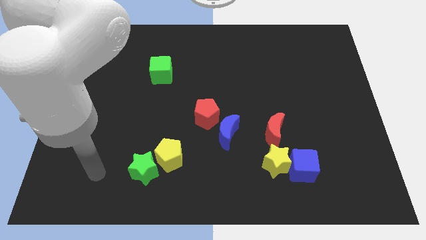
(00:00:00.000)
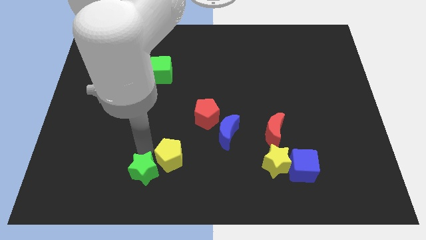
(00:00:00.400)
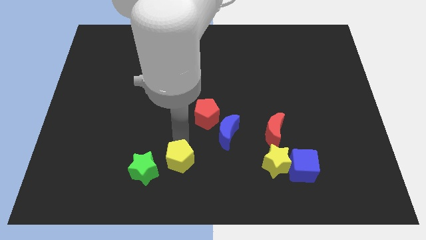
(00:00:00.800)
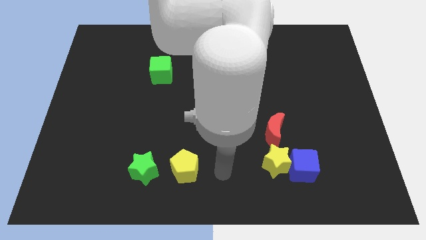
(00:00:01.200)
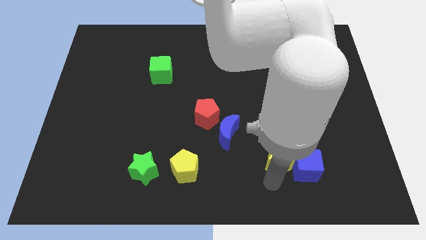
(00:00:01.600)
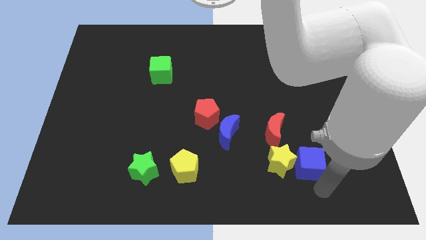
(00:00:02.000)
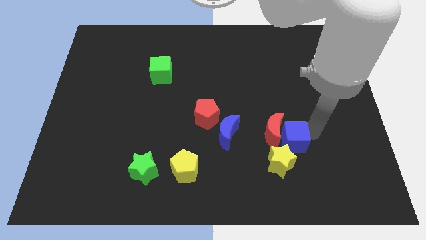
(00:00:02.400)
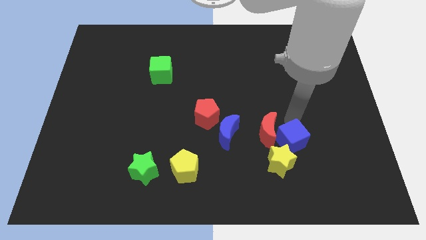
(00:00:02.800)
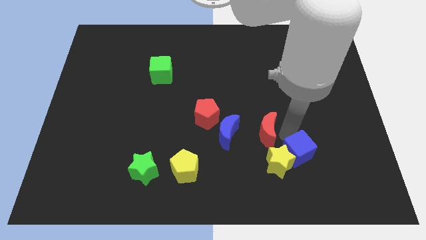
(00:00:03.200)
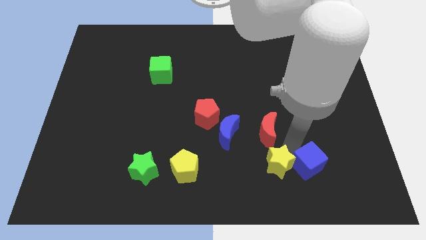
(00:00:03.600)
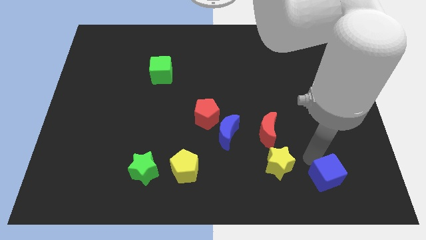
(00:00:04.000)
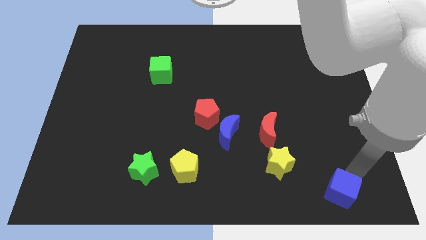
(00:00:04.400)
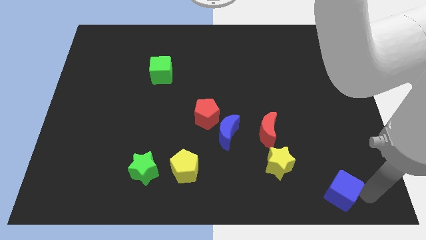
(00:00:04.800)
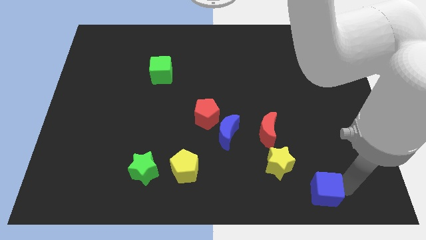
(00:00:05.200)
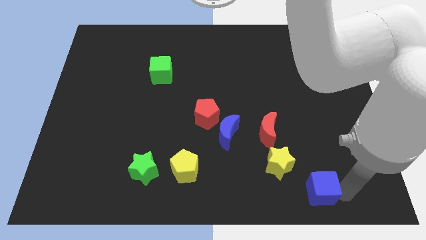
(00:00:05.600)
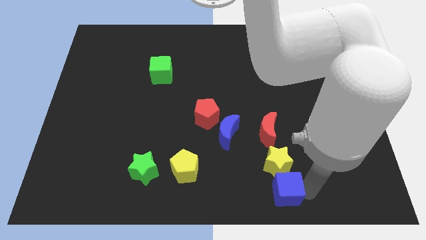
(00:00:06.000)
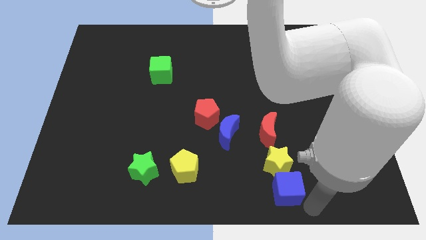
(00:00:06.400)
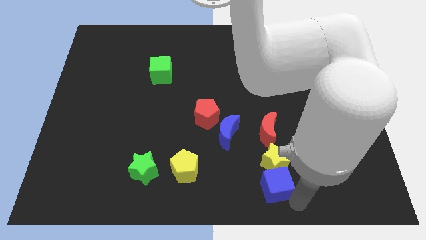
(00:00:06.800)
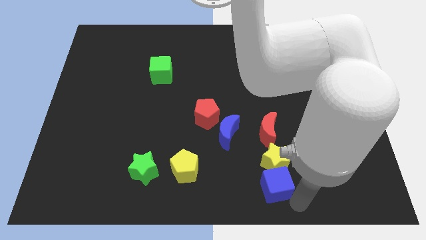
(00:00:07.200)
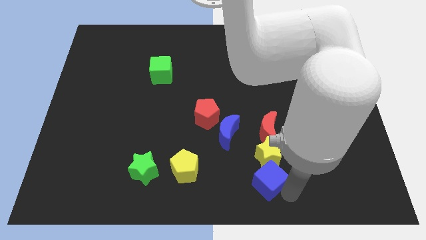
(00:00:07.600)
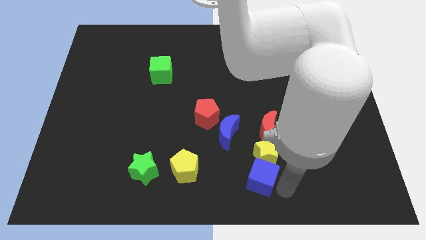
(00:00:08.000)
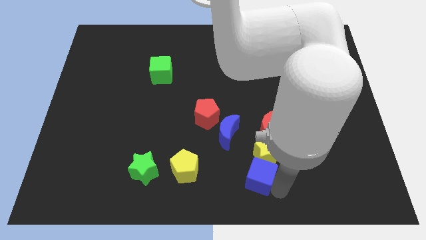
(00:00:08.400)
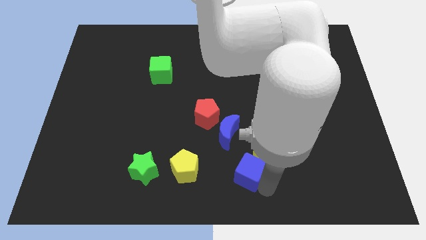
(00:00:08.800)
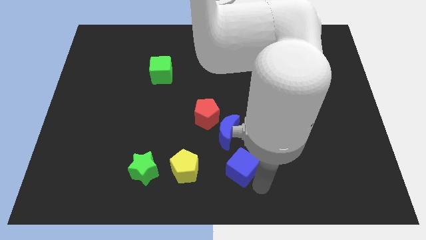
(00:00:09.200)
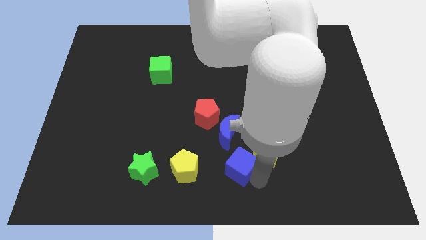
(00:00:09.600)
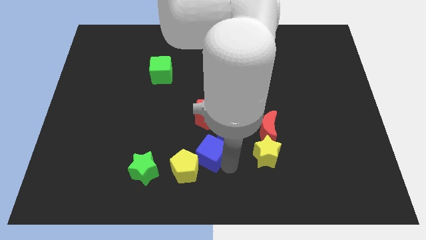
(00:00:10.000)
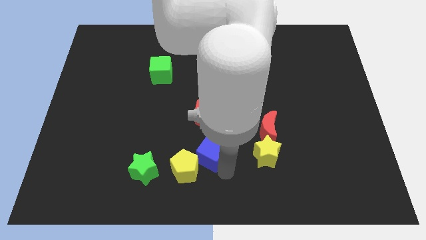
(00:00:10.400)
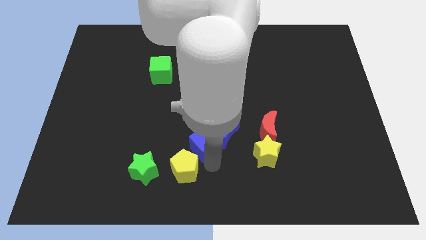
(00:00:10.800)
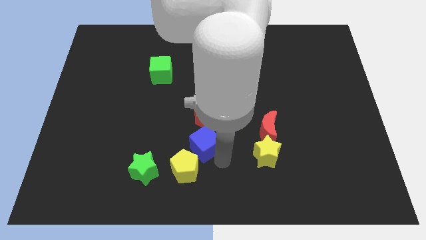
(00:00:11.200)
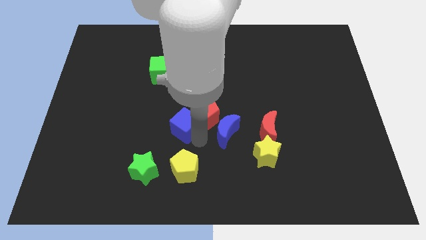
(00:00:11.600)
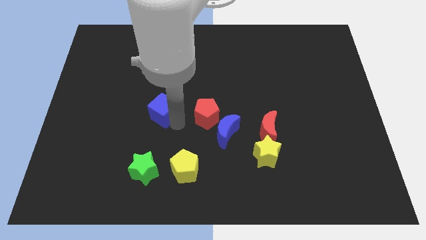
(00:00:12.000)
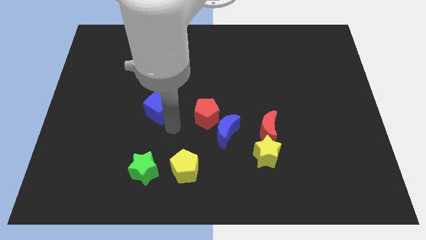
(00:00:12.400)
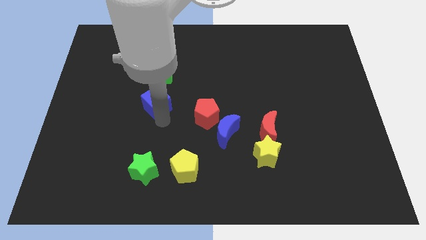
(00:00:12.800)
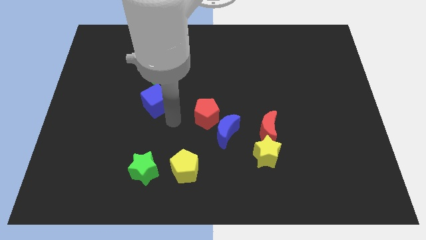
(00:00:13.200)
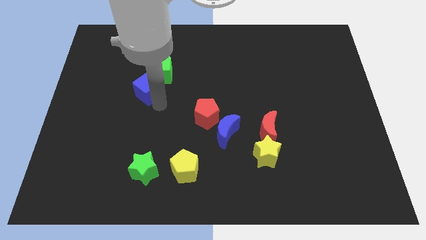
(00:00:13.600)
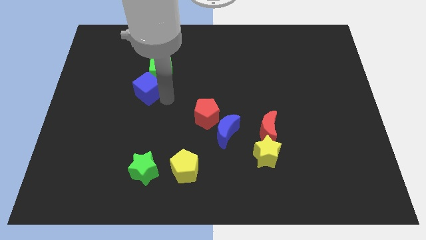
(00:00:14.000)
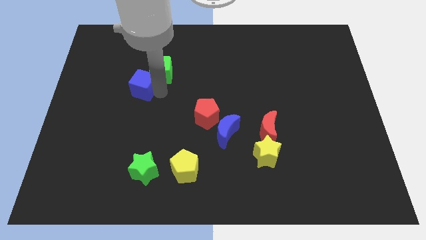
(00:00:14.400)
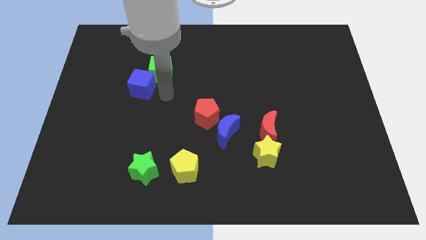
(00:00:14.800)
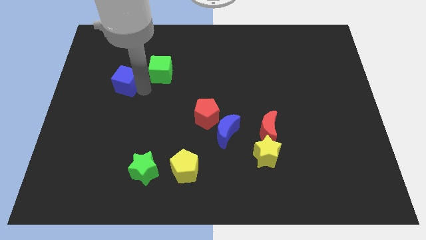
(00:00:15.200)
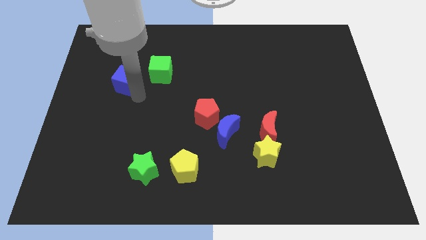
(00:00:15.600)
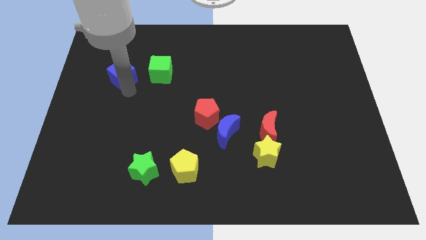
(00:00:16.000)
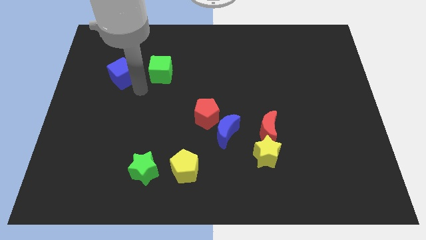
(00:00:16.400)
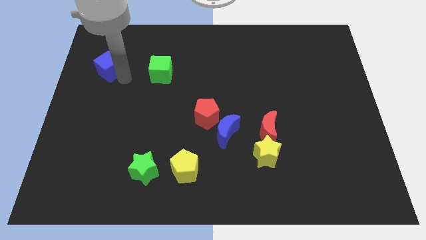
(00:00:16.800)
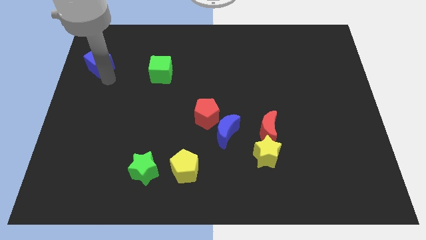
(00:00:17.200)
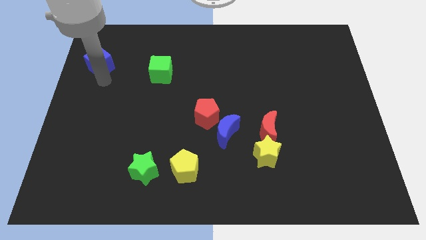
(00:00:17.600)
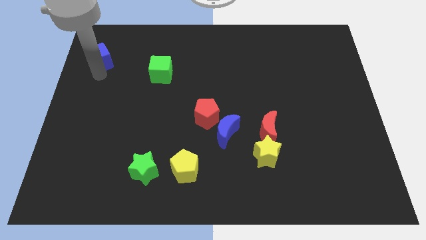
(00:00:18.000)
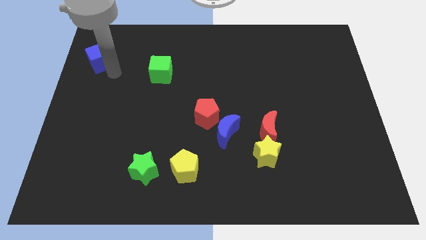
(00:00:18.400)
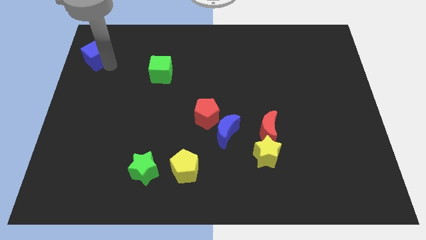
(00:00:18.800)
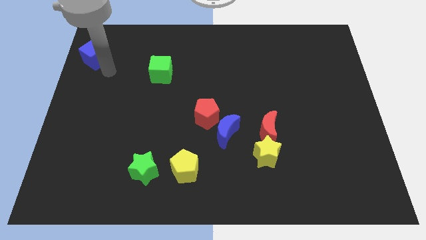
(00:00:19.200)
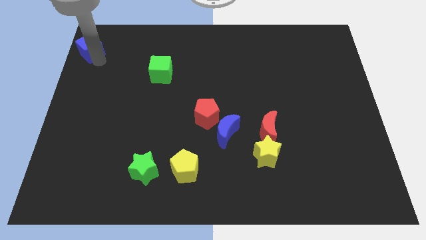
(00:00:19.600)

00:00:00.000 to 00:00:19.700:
put the blue cube to the top left
